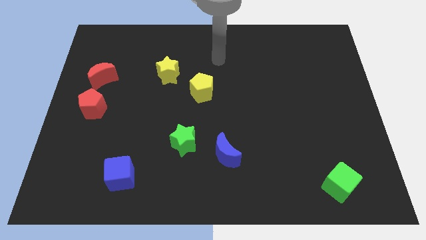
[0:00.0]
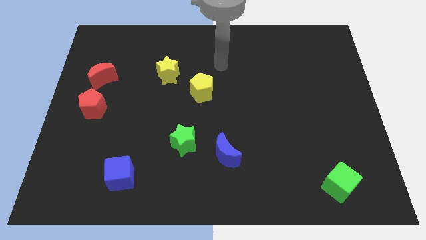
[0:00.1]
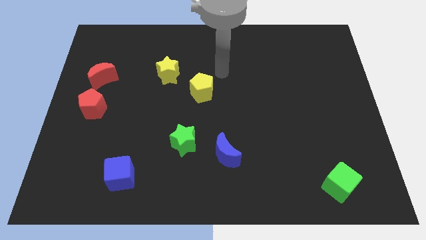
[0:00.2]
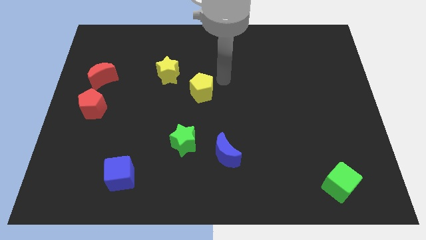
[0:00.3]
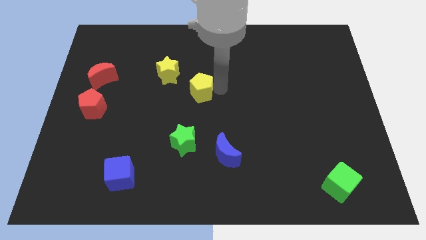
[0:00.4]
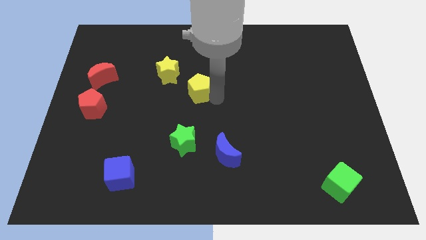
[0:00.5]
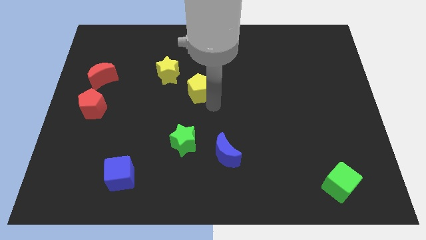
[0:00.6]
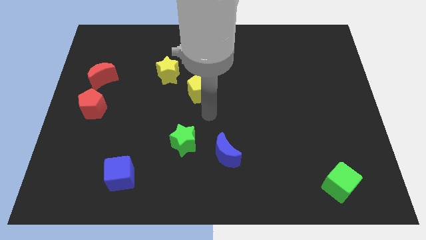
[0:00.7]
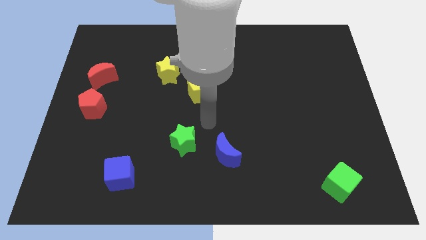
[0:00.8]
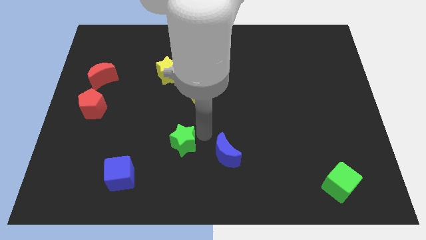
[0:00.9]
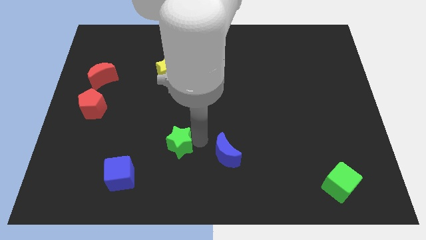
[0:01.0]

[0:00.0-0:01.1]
pull the blue moon apart from the green star

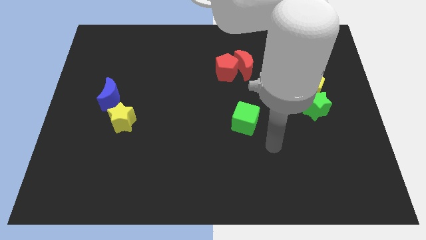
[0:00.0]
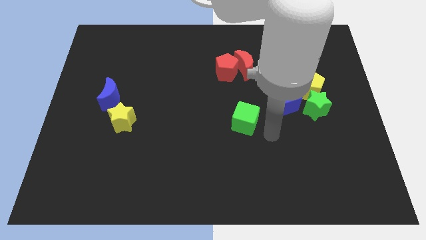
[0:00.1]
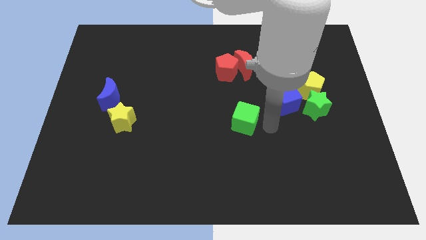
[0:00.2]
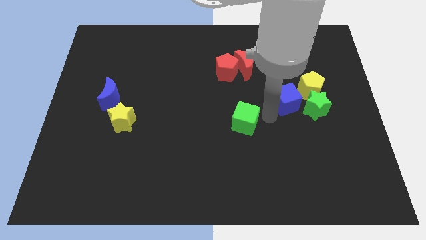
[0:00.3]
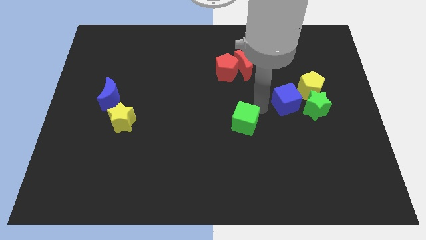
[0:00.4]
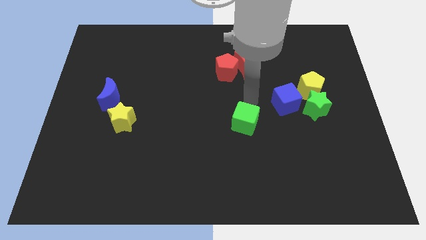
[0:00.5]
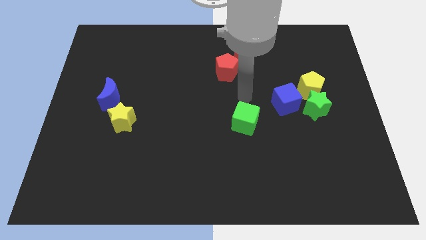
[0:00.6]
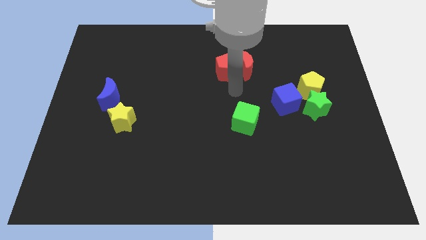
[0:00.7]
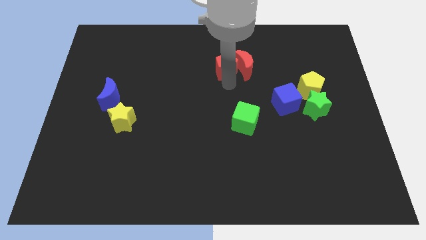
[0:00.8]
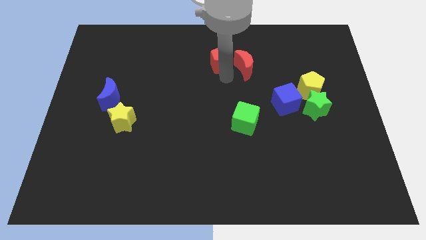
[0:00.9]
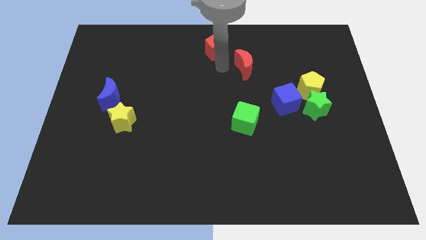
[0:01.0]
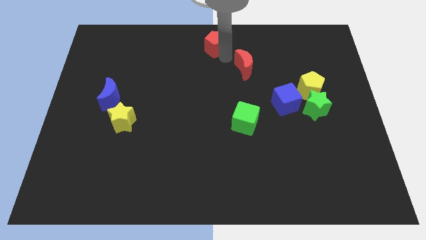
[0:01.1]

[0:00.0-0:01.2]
move the red moon away from the red pentagon

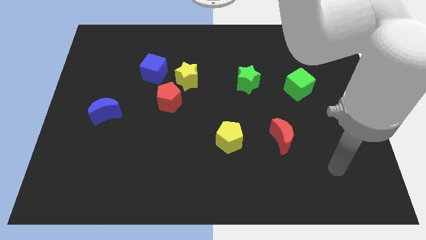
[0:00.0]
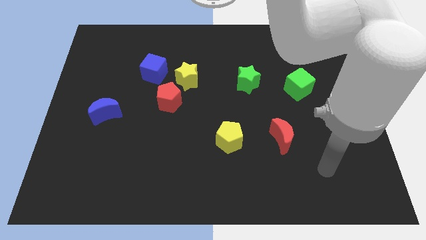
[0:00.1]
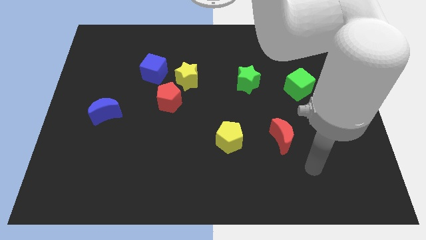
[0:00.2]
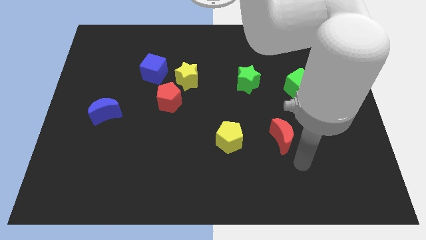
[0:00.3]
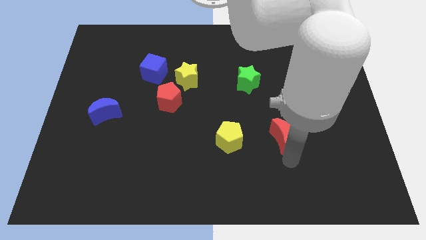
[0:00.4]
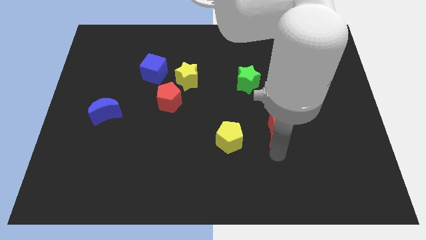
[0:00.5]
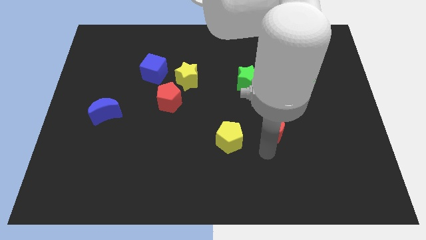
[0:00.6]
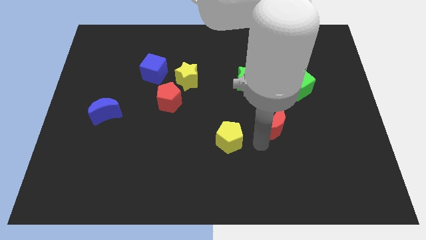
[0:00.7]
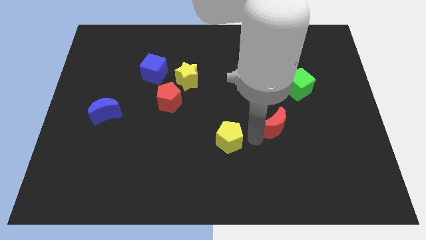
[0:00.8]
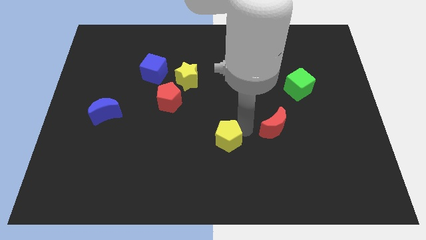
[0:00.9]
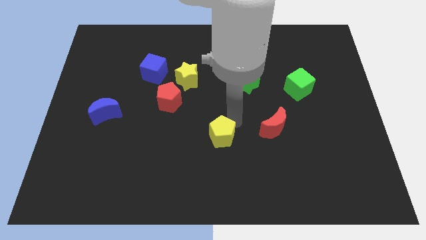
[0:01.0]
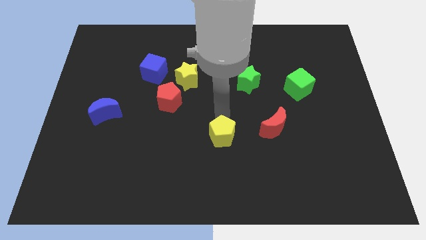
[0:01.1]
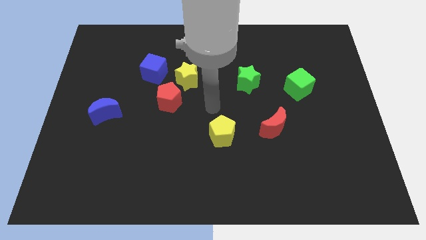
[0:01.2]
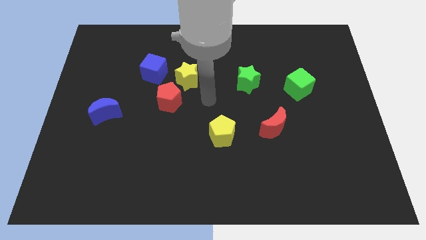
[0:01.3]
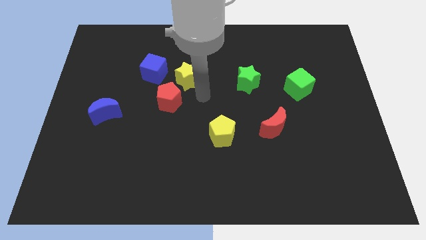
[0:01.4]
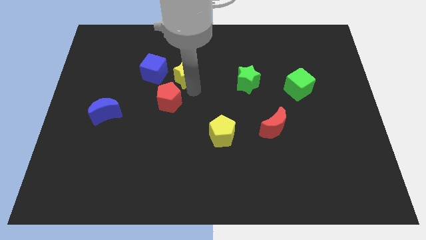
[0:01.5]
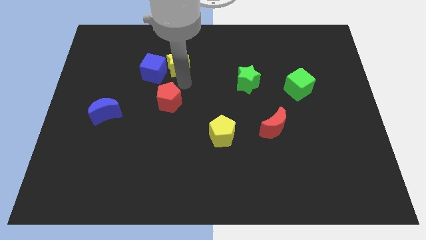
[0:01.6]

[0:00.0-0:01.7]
separate the red pentagon from the yellow star

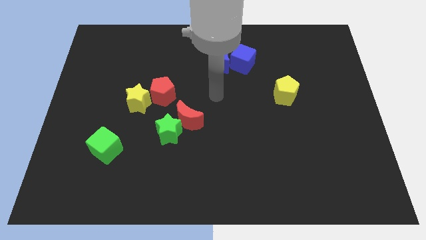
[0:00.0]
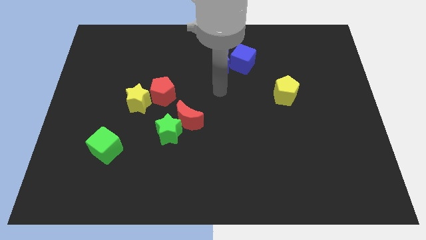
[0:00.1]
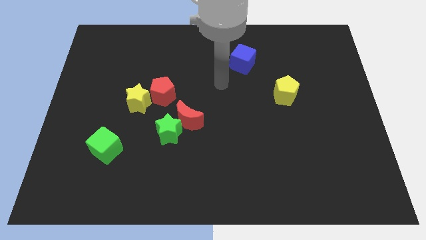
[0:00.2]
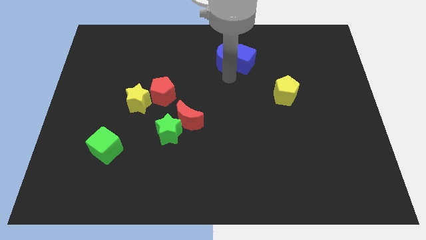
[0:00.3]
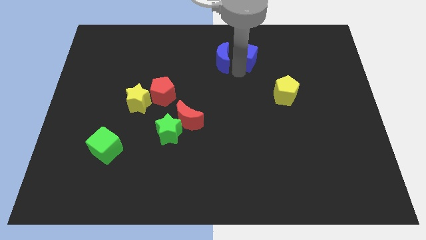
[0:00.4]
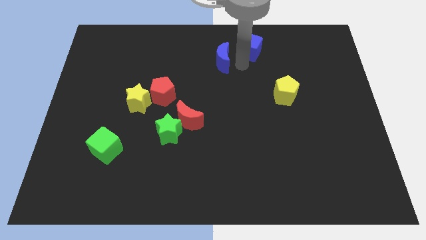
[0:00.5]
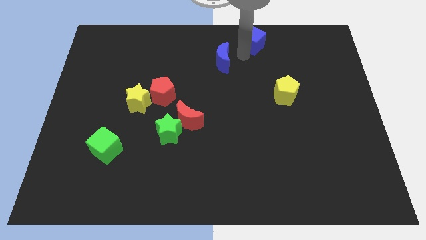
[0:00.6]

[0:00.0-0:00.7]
separate the blue moon from the blue cube

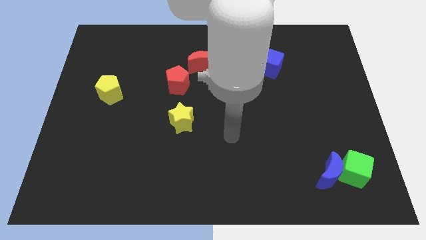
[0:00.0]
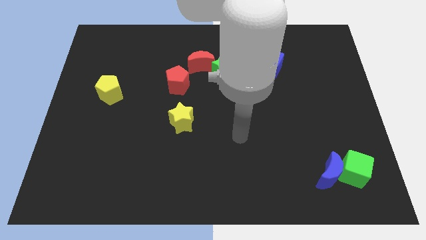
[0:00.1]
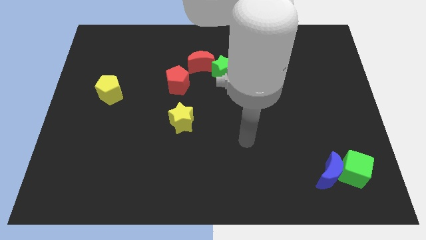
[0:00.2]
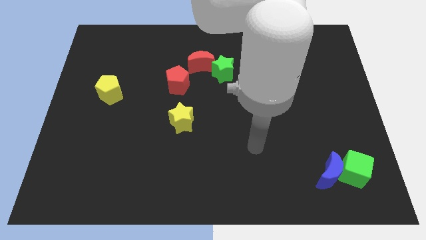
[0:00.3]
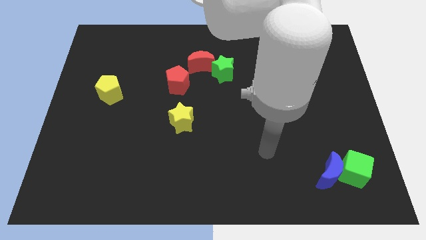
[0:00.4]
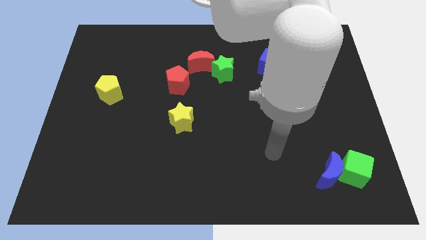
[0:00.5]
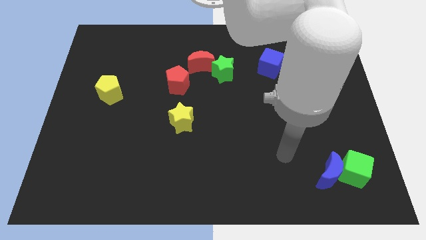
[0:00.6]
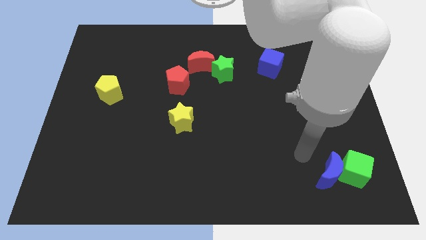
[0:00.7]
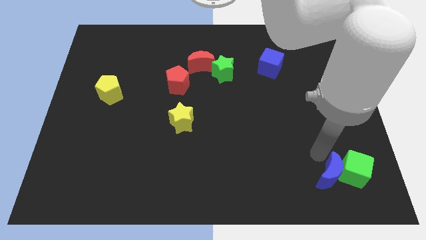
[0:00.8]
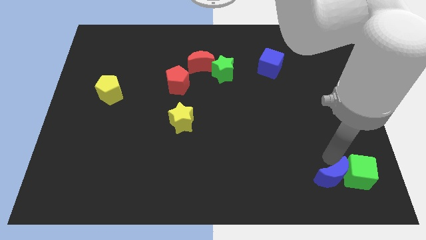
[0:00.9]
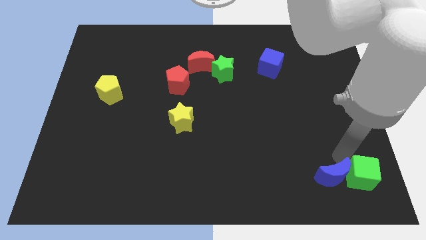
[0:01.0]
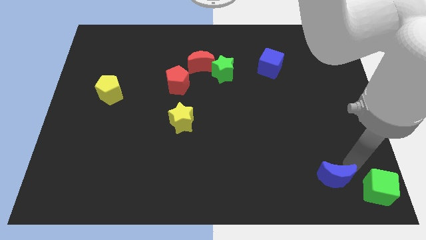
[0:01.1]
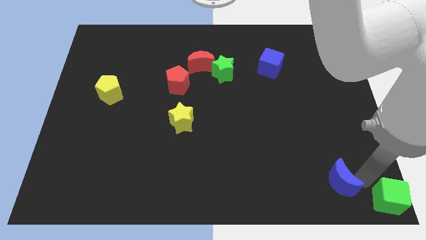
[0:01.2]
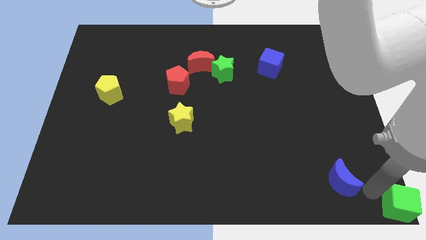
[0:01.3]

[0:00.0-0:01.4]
move the blue moon away from the green cube

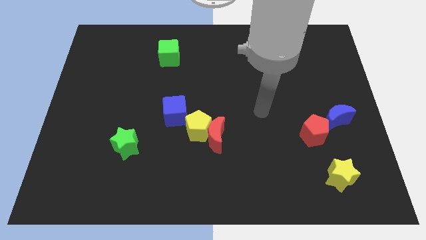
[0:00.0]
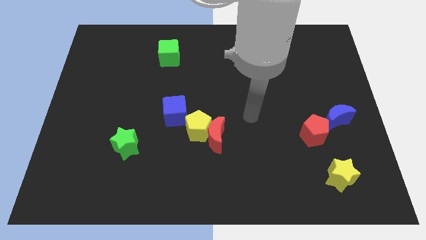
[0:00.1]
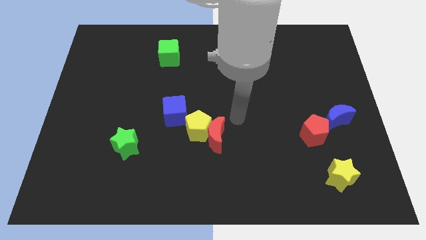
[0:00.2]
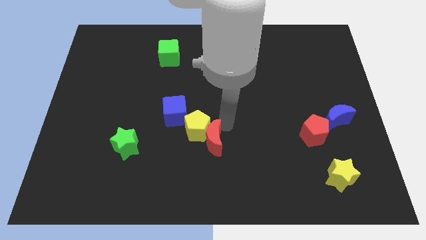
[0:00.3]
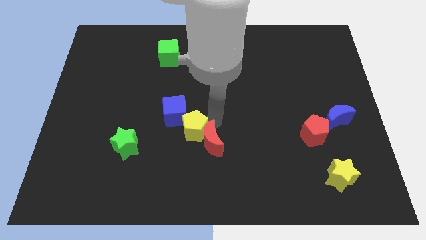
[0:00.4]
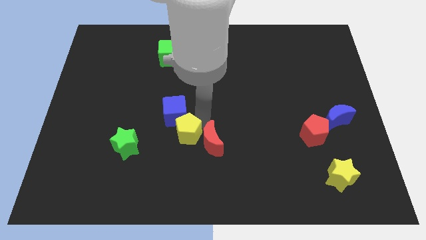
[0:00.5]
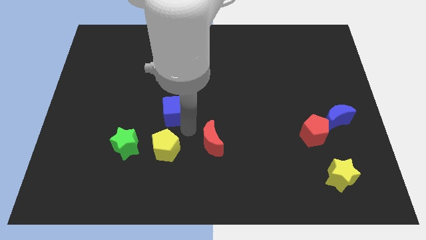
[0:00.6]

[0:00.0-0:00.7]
move the red moon away from the yellow pentagon

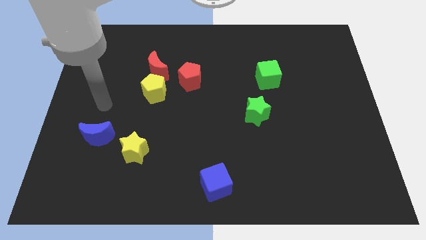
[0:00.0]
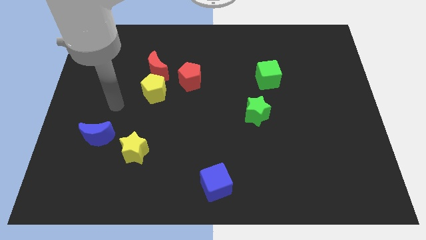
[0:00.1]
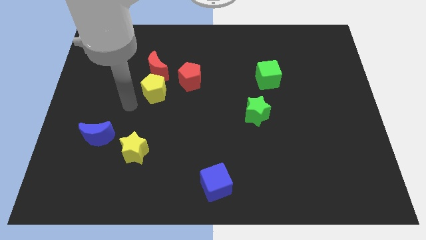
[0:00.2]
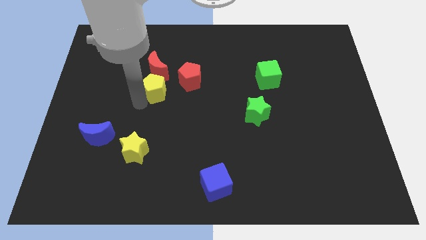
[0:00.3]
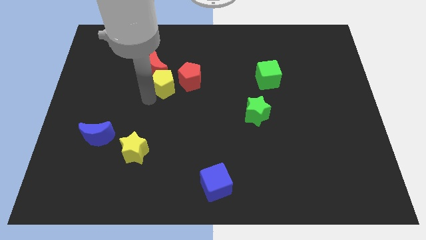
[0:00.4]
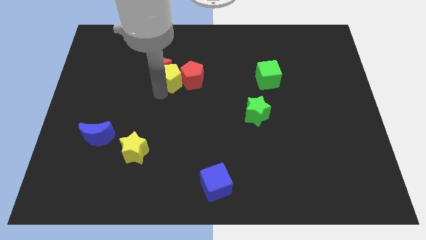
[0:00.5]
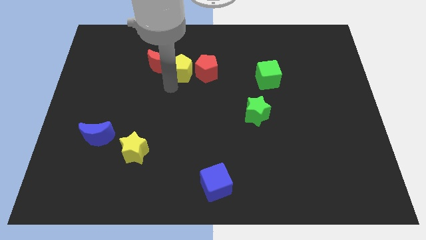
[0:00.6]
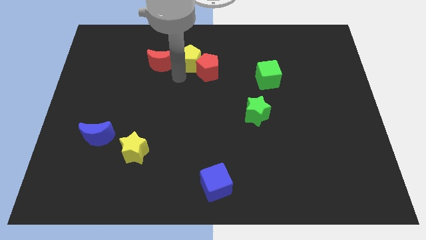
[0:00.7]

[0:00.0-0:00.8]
move the red moon away from the yellow pentagon and red pentagon

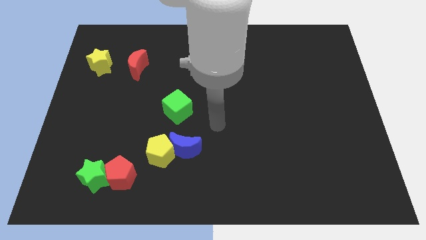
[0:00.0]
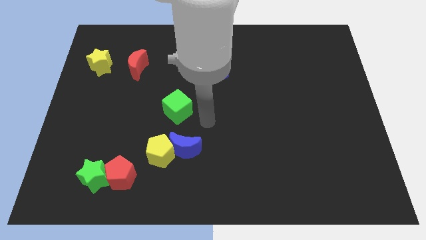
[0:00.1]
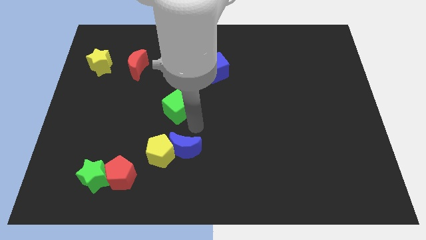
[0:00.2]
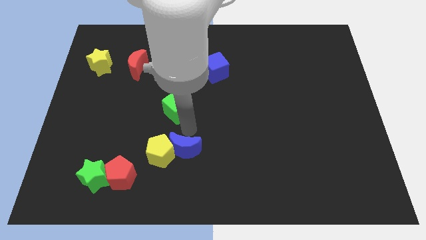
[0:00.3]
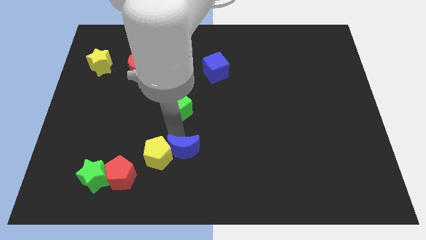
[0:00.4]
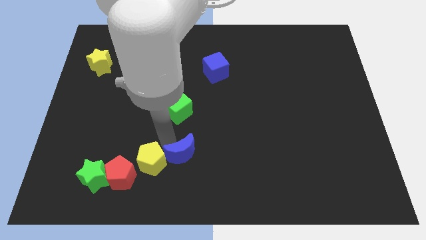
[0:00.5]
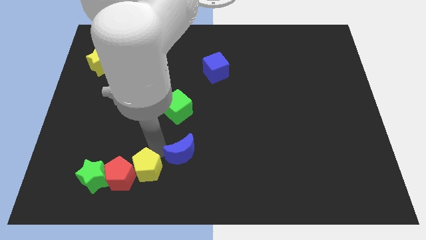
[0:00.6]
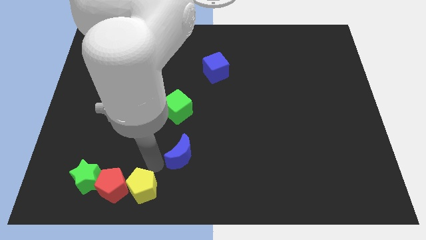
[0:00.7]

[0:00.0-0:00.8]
separate the blue moon from the yellow pentagon

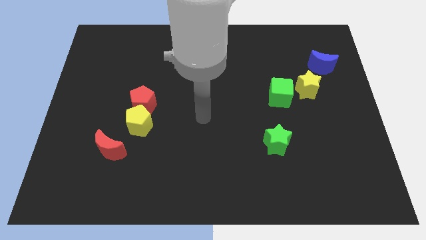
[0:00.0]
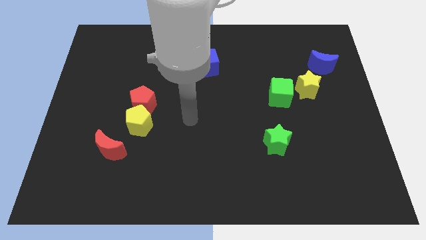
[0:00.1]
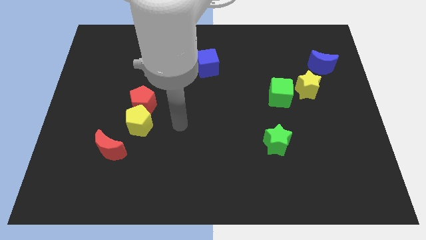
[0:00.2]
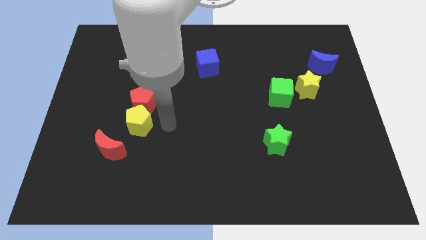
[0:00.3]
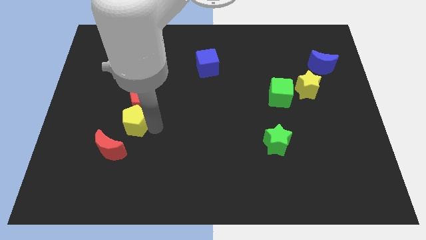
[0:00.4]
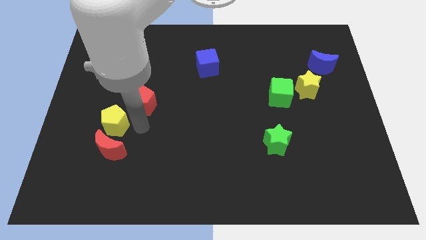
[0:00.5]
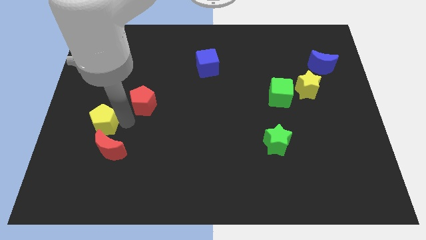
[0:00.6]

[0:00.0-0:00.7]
separate the red pentagon from the yellow pentagon

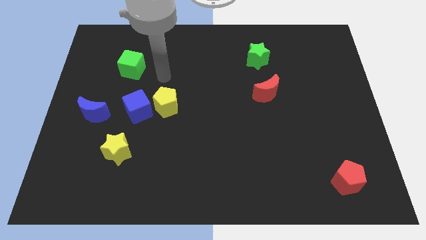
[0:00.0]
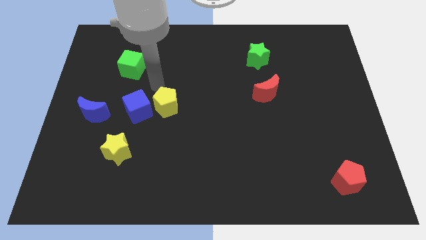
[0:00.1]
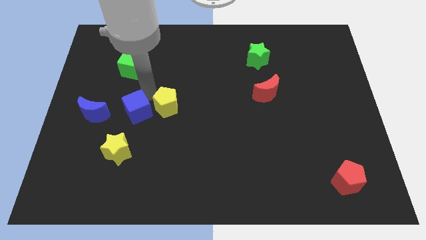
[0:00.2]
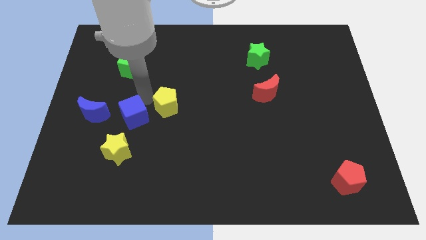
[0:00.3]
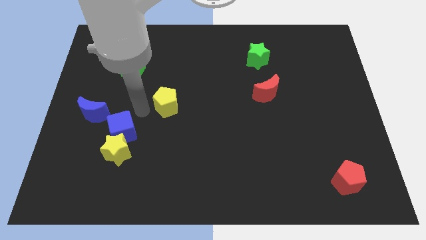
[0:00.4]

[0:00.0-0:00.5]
separate the yellow pentagon from the blue cube
